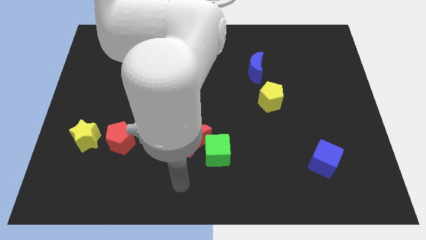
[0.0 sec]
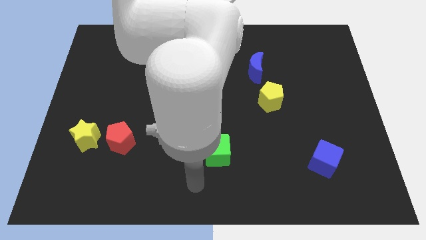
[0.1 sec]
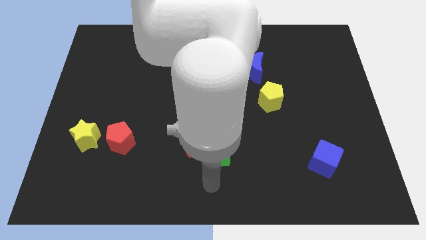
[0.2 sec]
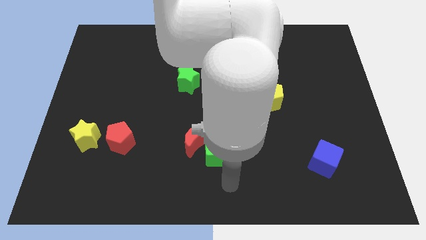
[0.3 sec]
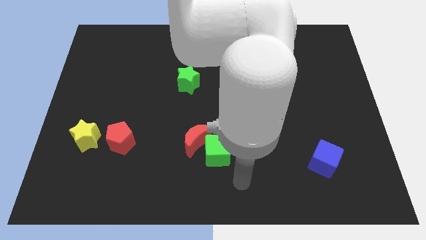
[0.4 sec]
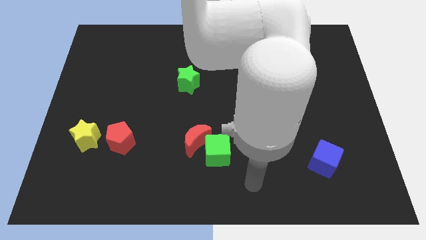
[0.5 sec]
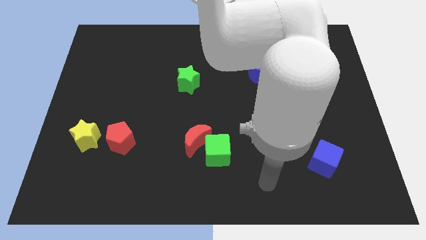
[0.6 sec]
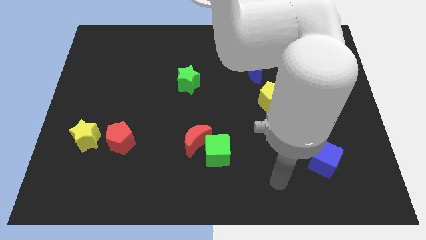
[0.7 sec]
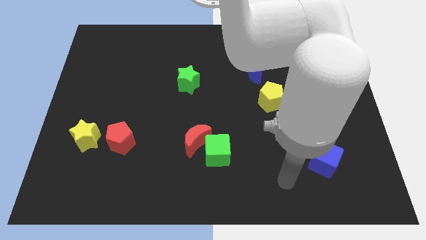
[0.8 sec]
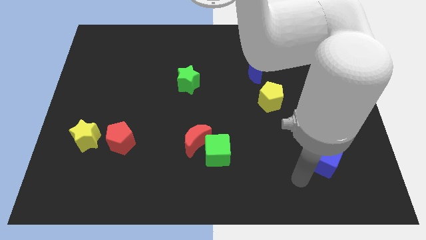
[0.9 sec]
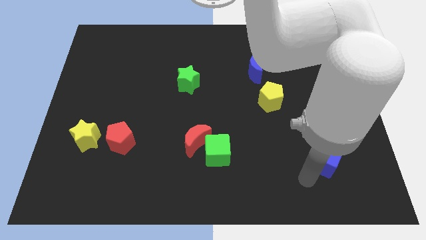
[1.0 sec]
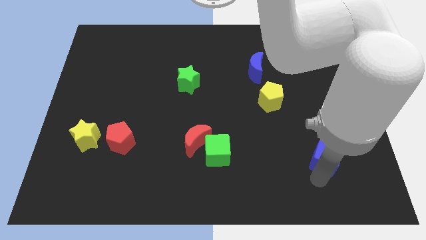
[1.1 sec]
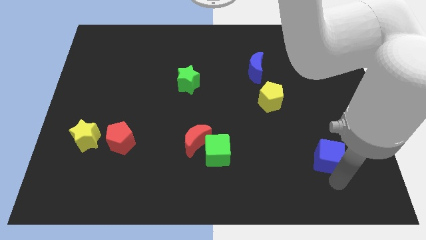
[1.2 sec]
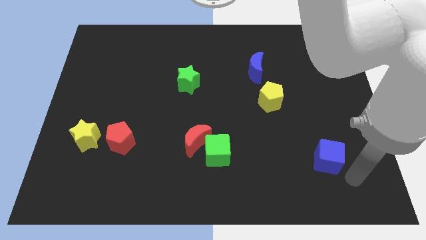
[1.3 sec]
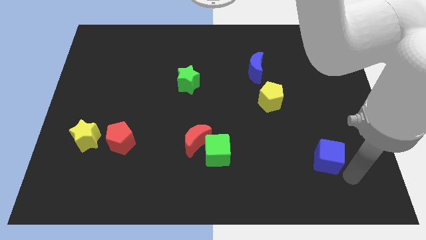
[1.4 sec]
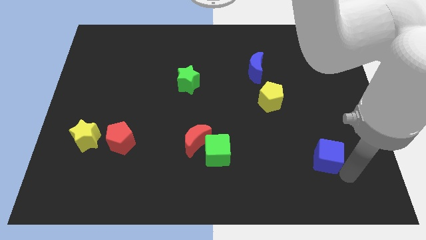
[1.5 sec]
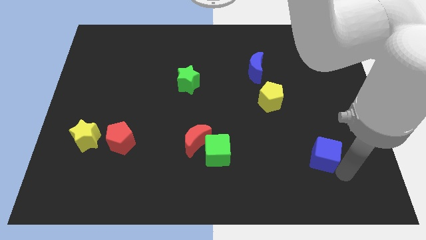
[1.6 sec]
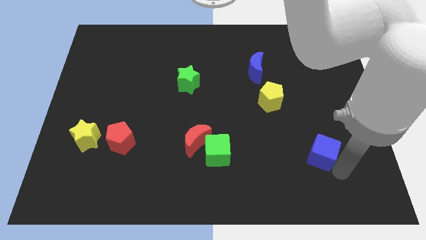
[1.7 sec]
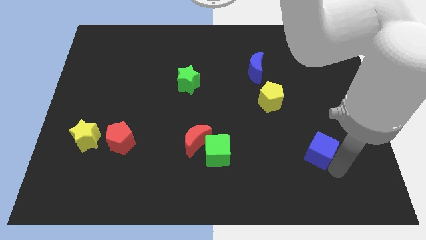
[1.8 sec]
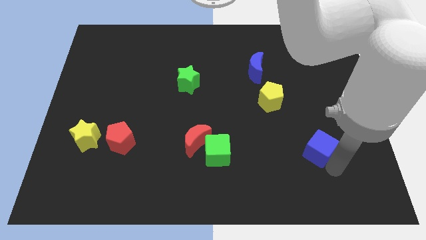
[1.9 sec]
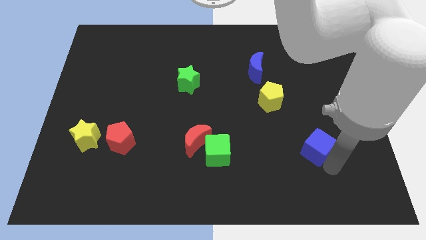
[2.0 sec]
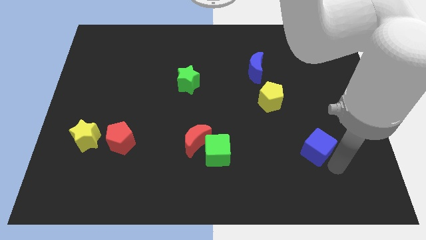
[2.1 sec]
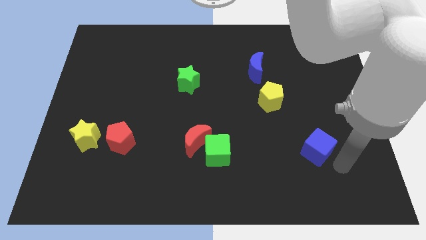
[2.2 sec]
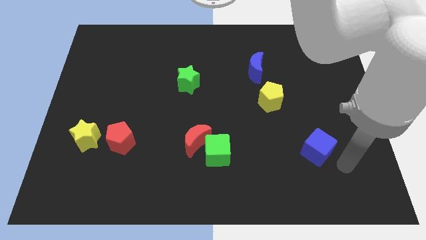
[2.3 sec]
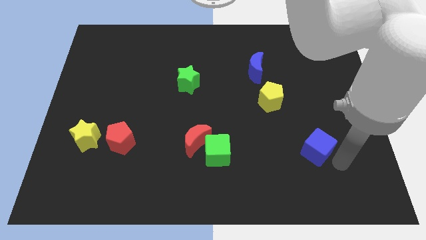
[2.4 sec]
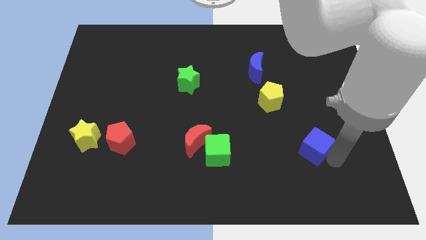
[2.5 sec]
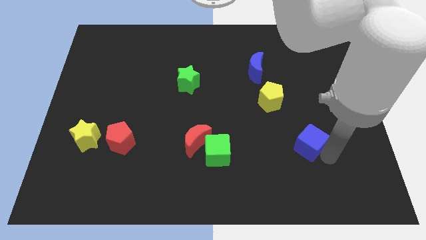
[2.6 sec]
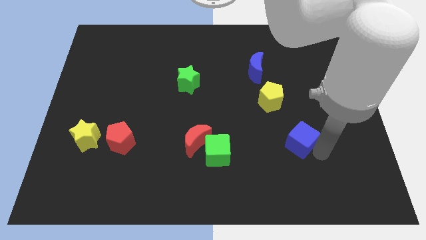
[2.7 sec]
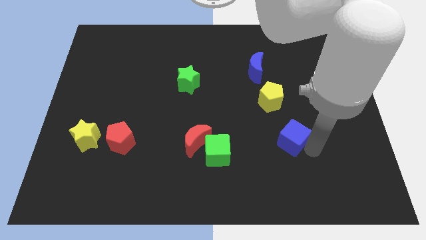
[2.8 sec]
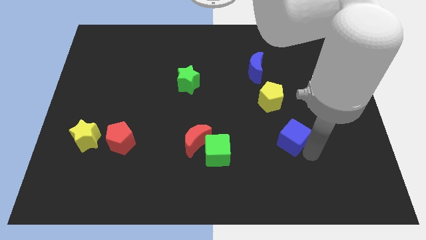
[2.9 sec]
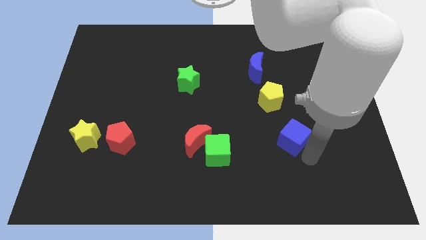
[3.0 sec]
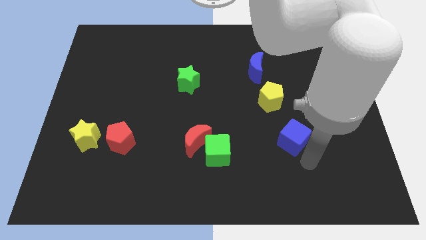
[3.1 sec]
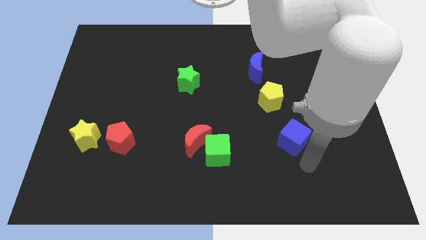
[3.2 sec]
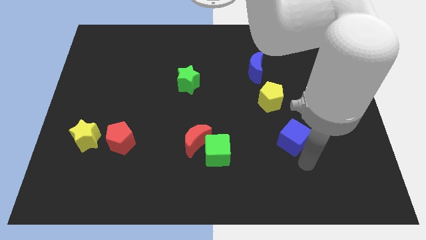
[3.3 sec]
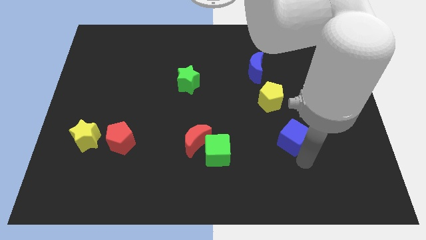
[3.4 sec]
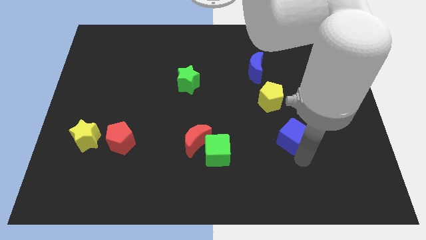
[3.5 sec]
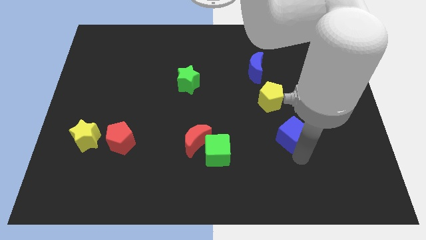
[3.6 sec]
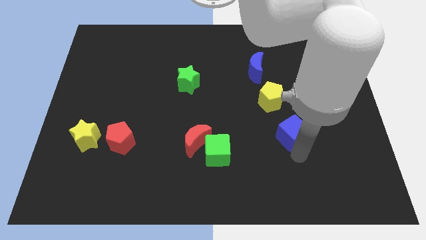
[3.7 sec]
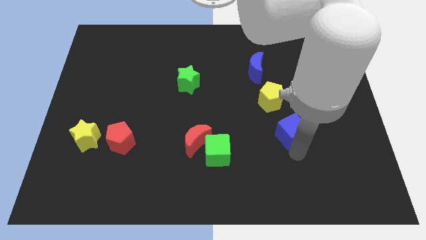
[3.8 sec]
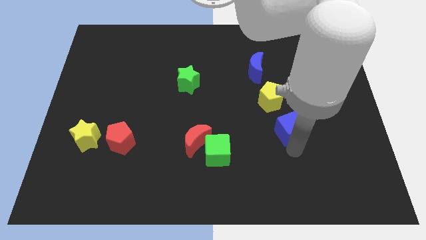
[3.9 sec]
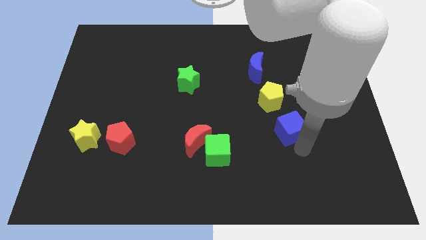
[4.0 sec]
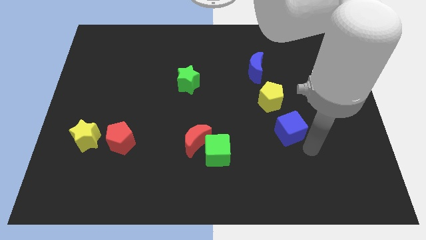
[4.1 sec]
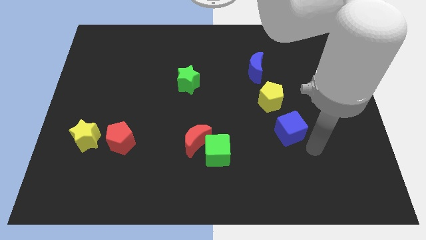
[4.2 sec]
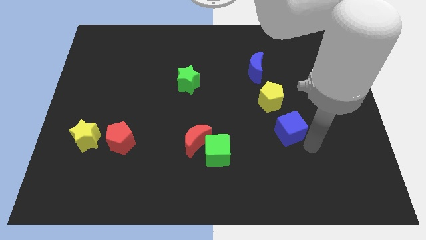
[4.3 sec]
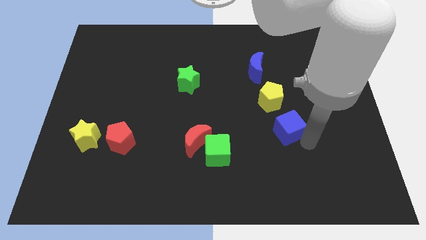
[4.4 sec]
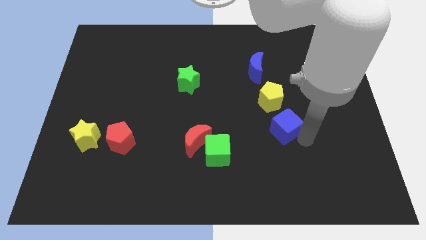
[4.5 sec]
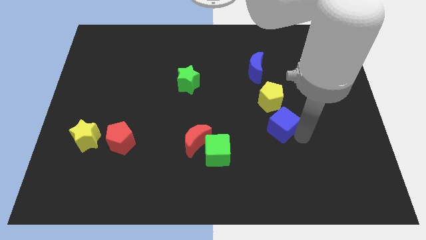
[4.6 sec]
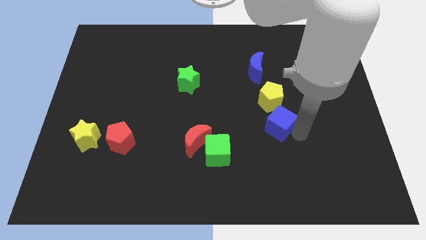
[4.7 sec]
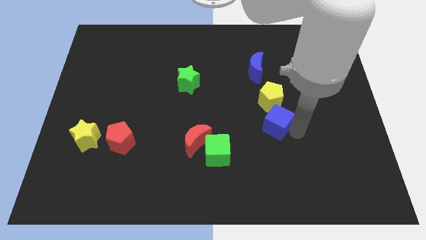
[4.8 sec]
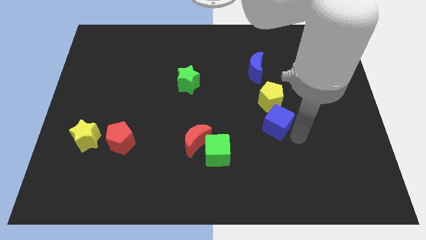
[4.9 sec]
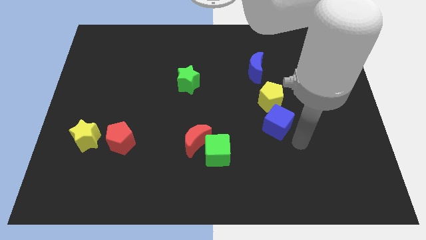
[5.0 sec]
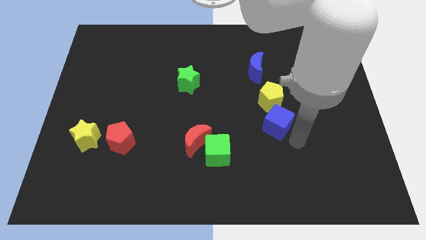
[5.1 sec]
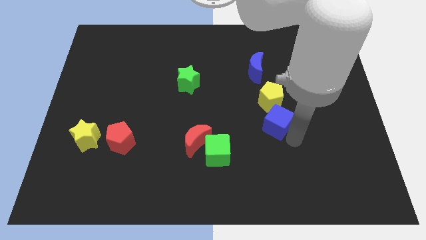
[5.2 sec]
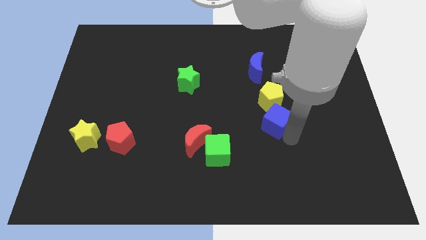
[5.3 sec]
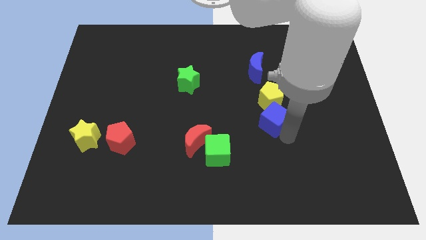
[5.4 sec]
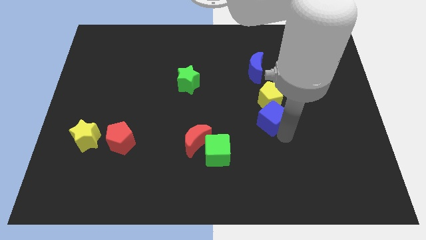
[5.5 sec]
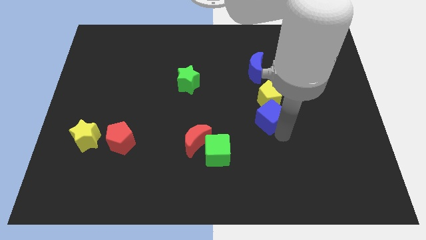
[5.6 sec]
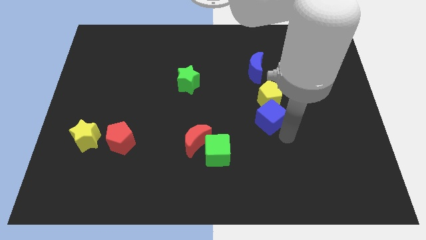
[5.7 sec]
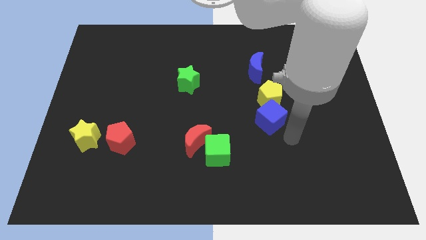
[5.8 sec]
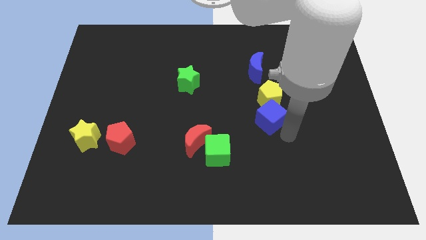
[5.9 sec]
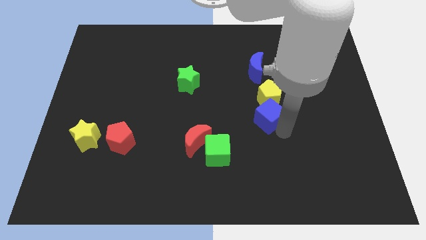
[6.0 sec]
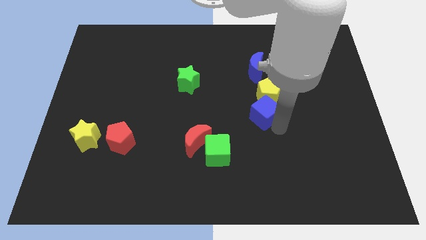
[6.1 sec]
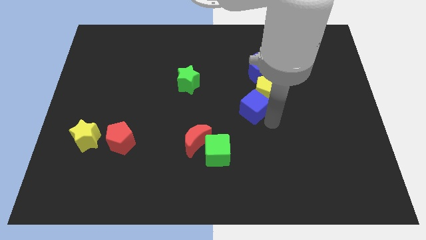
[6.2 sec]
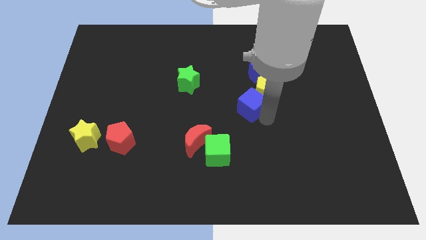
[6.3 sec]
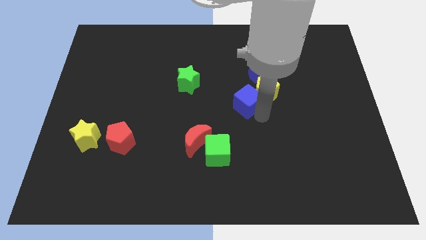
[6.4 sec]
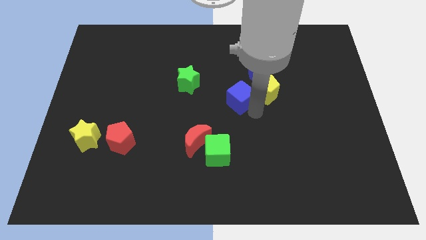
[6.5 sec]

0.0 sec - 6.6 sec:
slide the blue cube diagonally down and to the left of the blue moon
